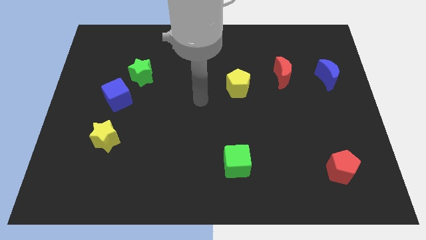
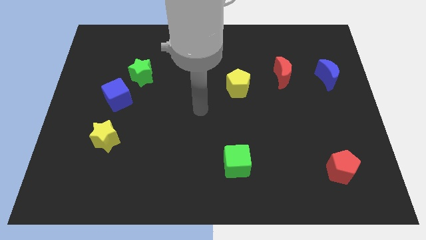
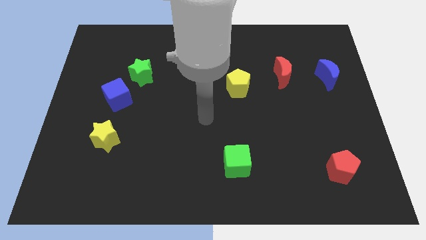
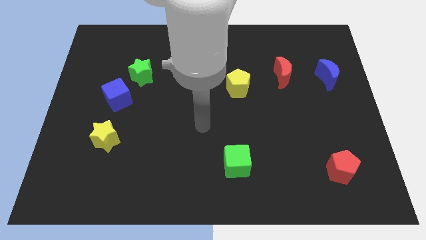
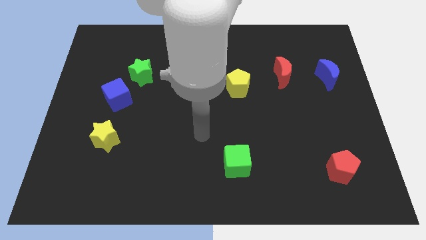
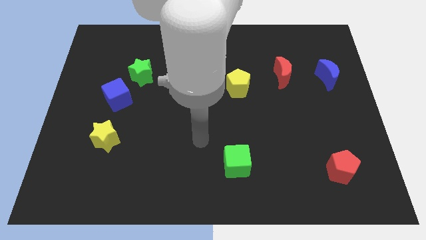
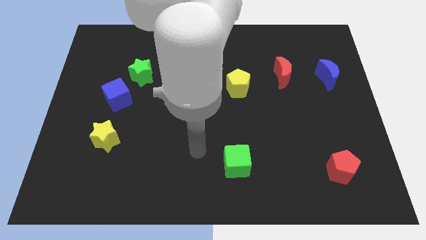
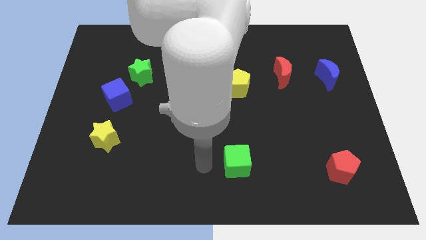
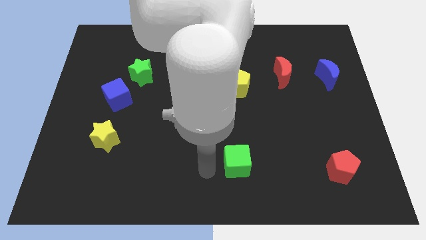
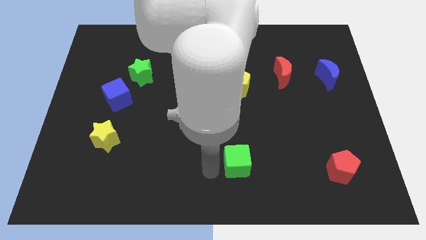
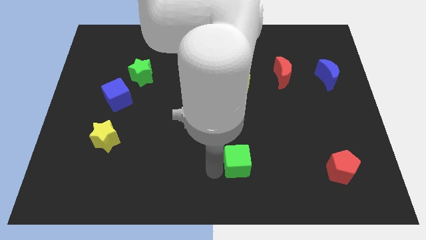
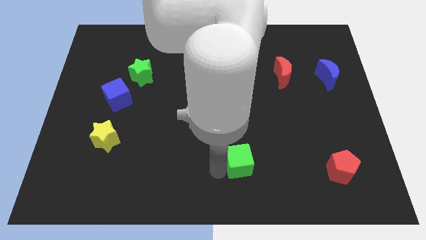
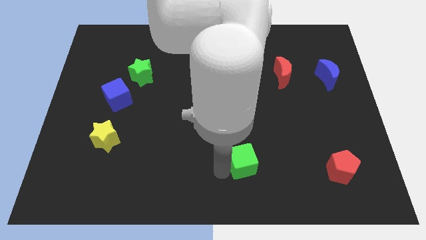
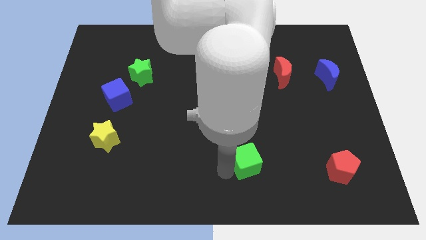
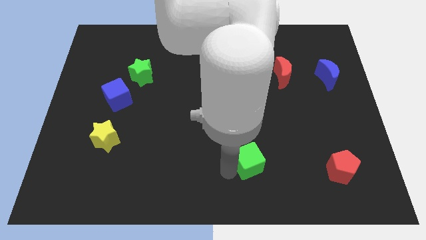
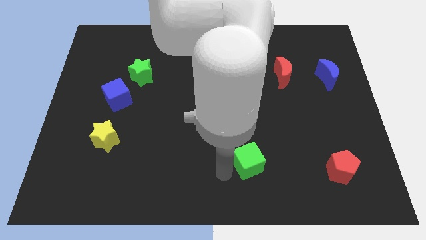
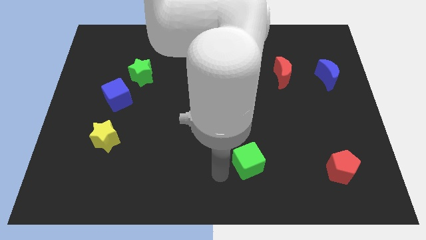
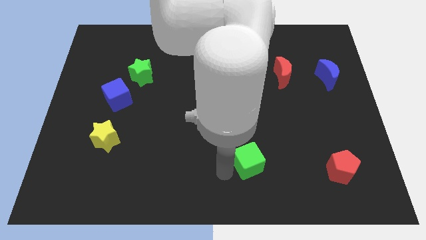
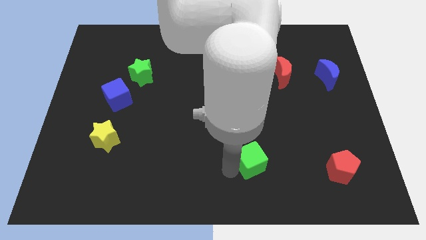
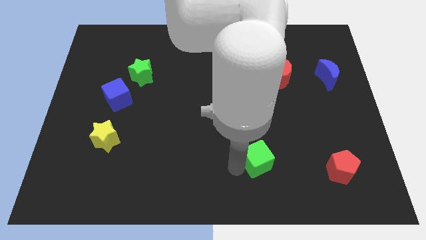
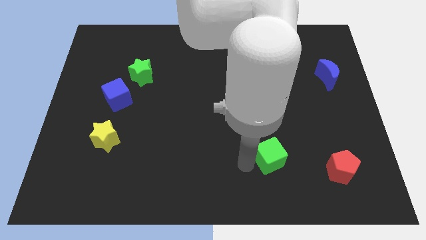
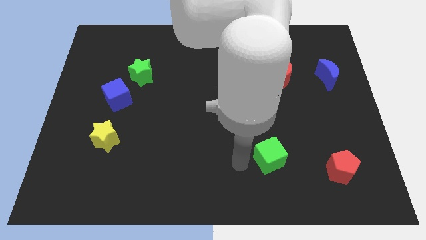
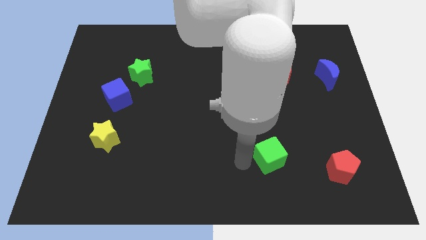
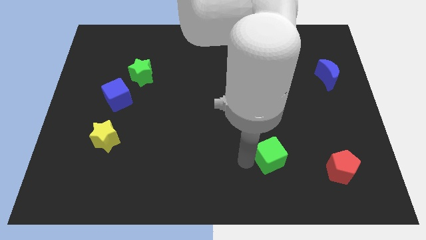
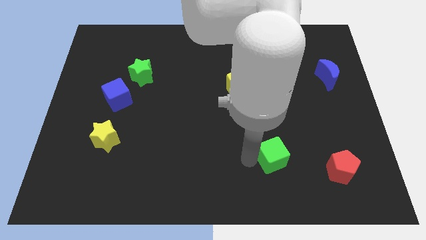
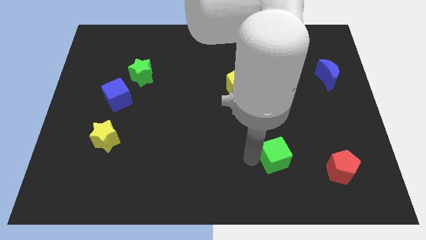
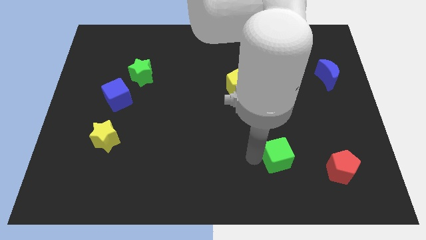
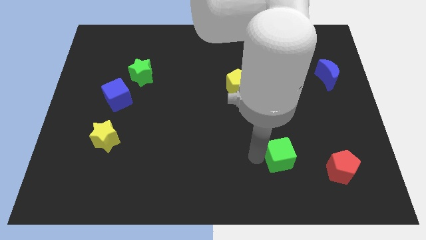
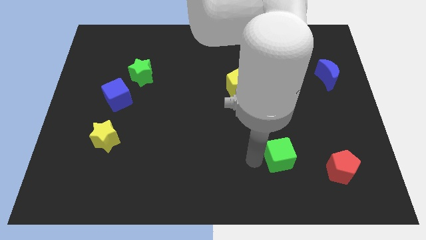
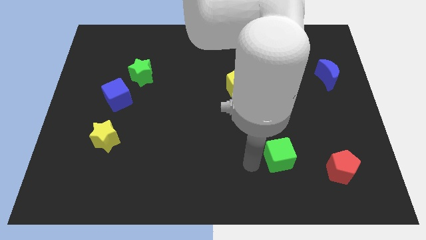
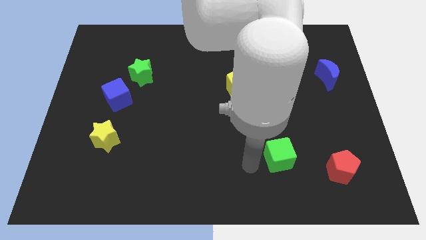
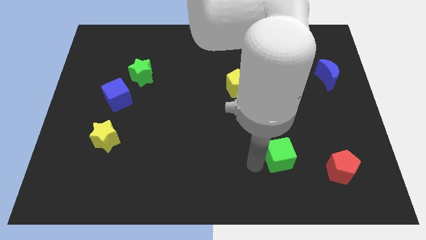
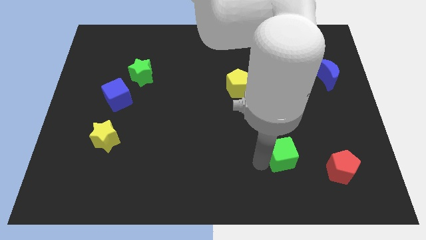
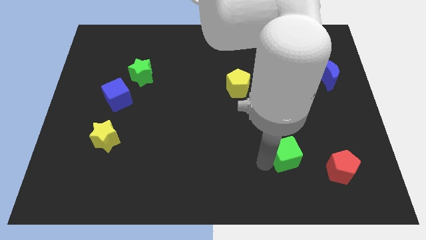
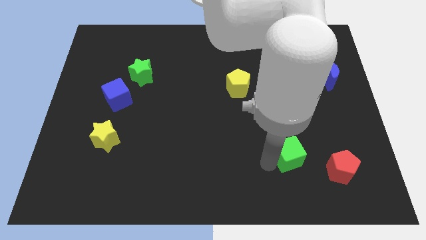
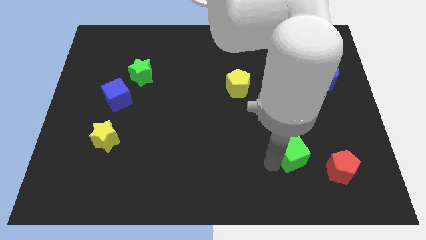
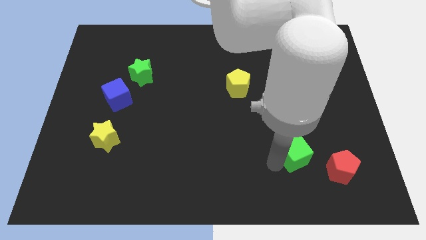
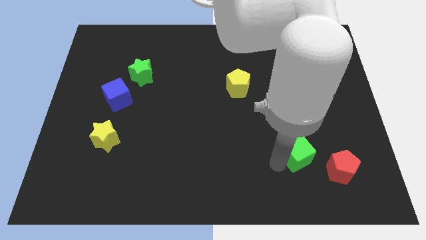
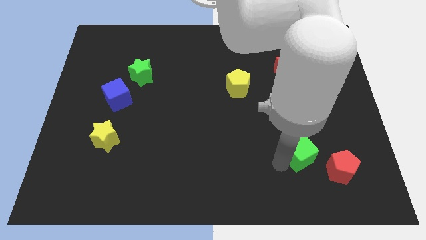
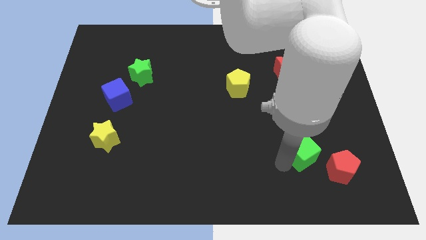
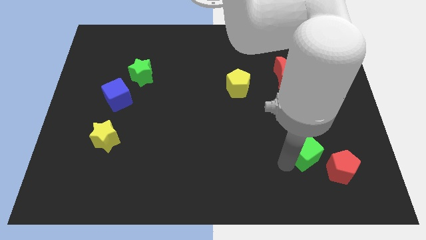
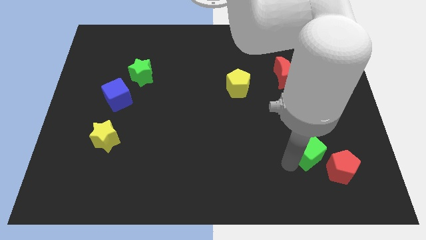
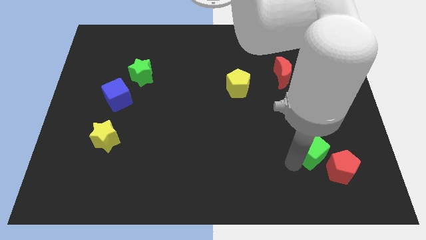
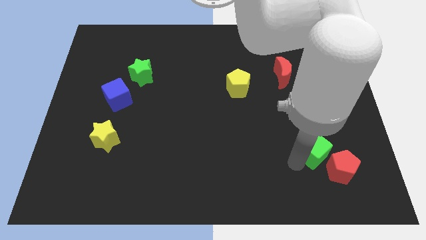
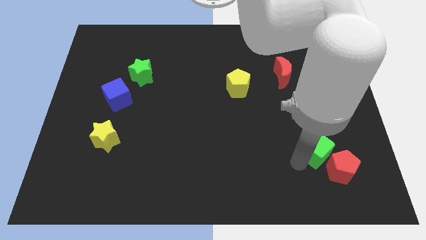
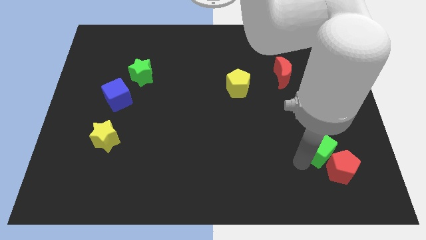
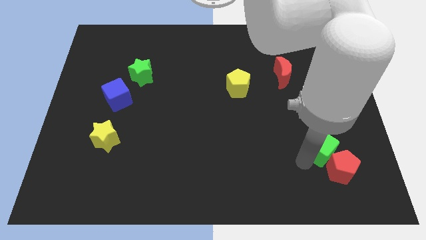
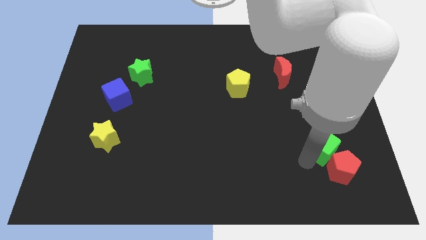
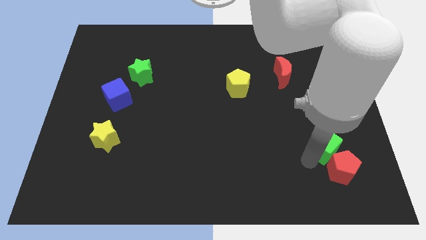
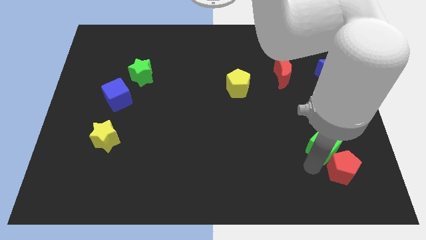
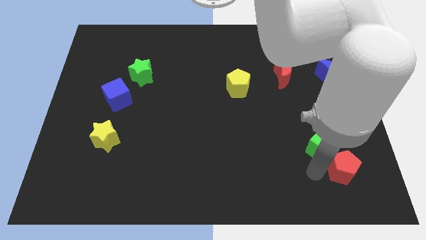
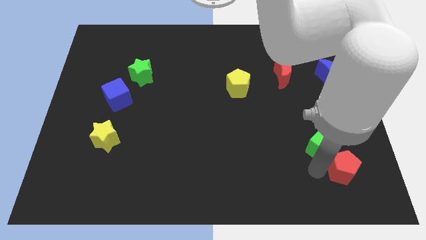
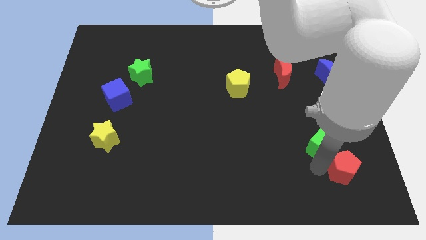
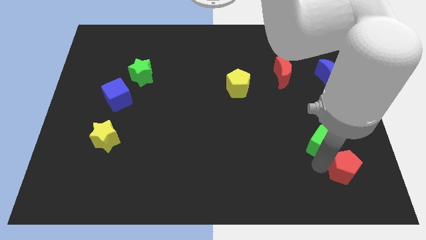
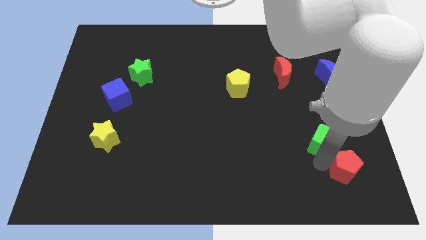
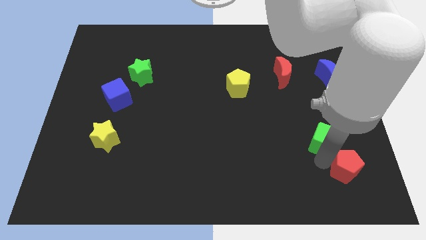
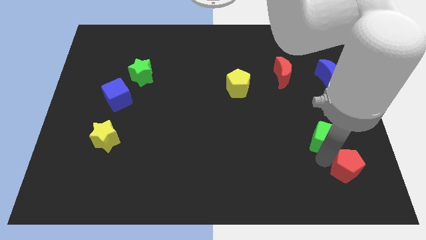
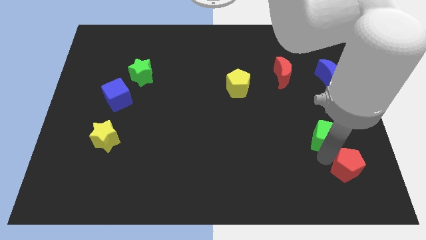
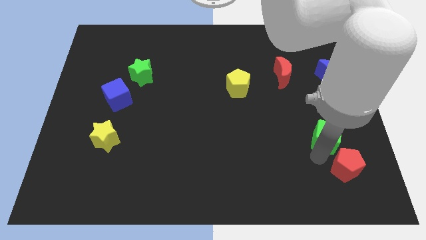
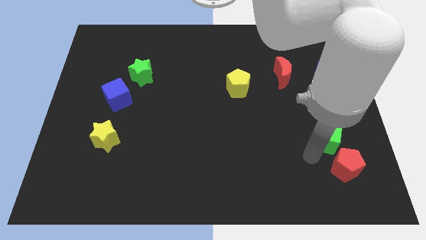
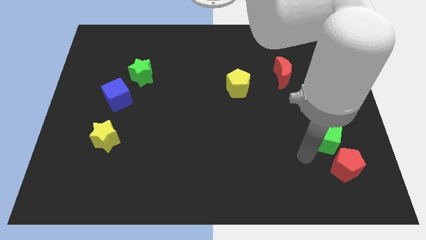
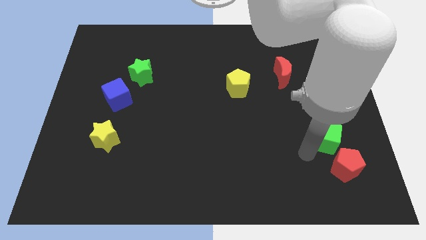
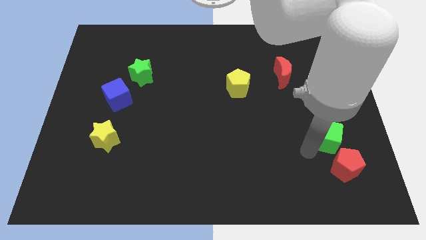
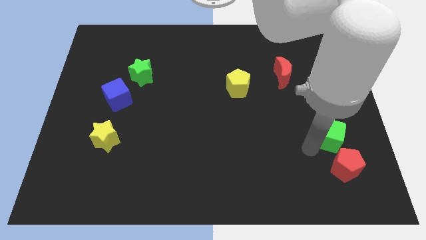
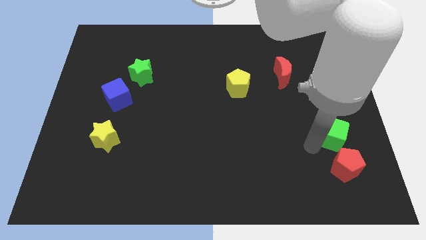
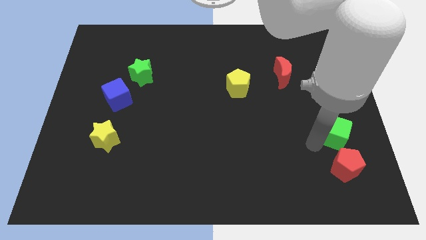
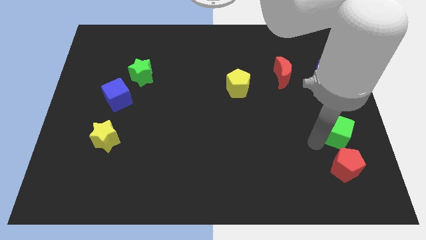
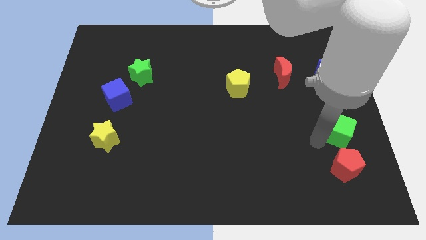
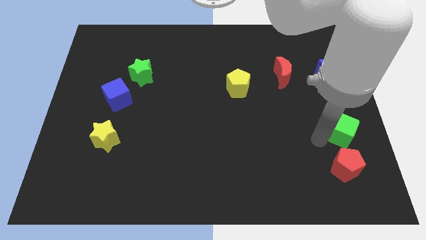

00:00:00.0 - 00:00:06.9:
put the green cube to the right side of the board
